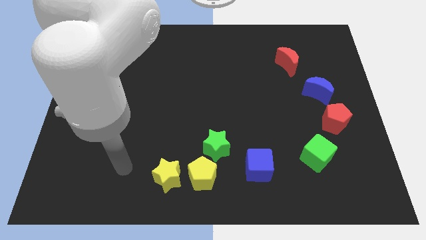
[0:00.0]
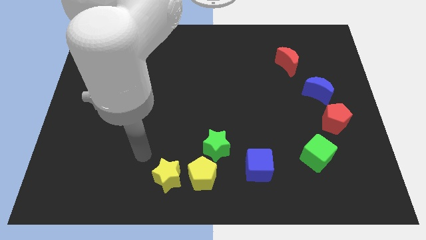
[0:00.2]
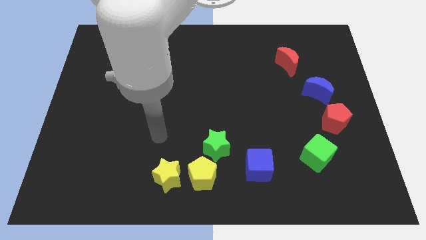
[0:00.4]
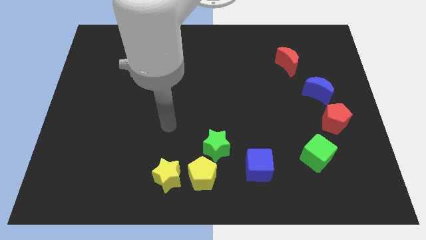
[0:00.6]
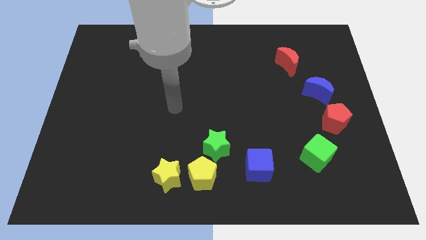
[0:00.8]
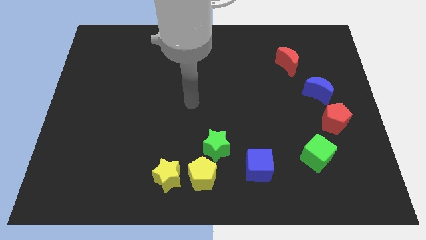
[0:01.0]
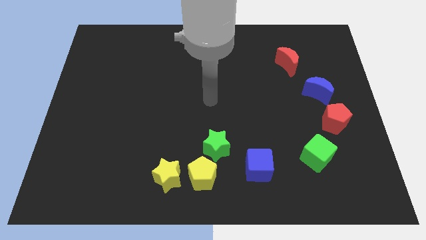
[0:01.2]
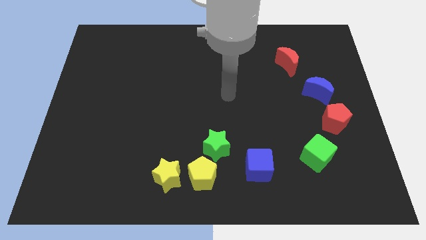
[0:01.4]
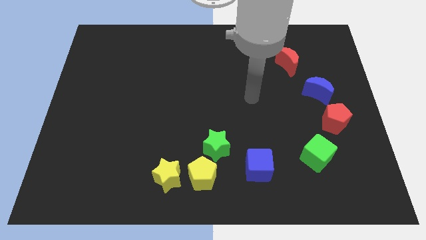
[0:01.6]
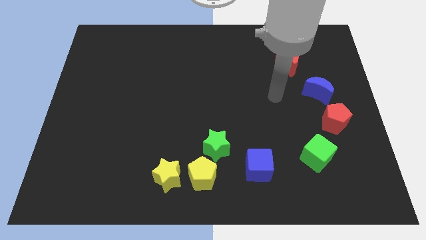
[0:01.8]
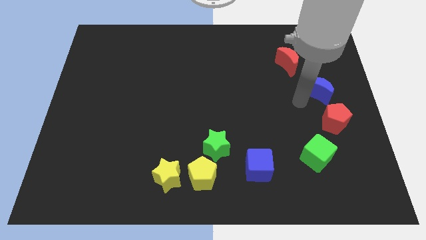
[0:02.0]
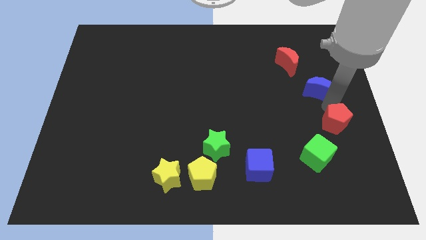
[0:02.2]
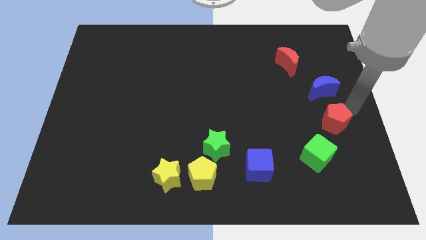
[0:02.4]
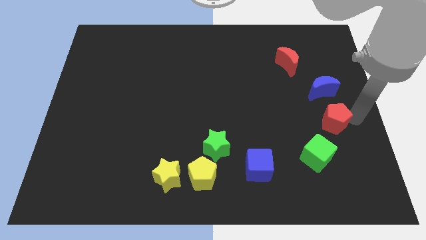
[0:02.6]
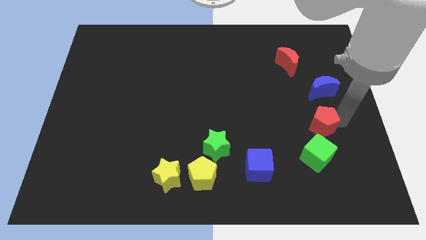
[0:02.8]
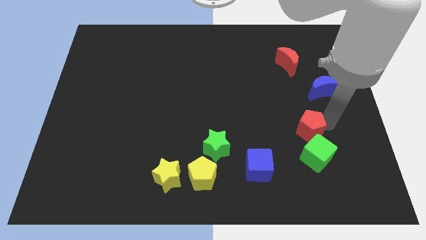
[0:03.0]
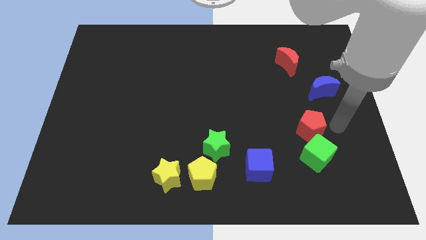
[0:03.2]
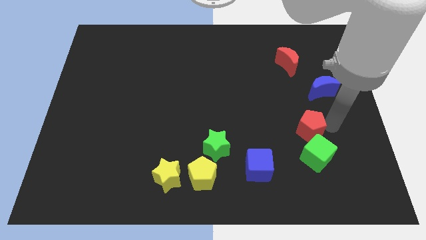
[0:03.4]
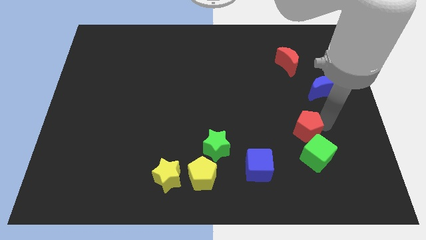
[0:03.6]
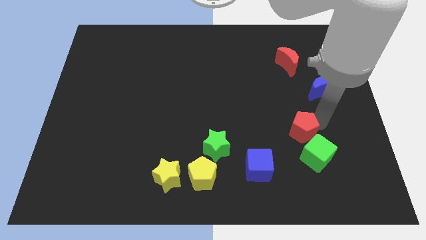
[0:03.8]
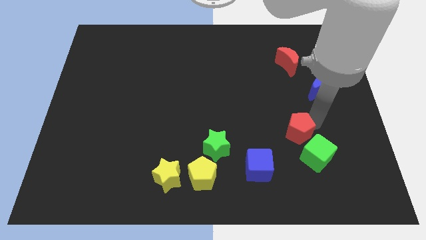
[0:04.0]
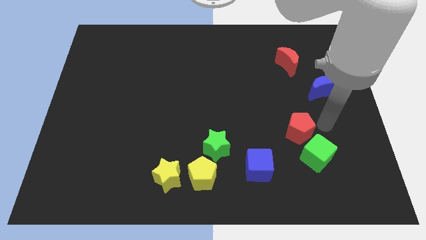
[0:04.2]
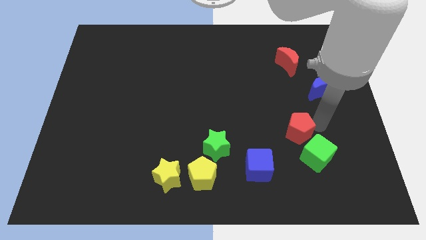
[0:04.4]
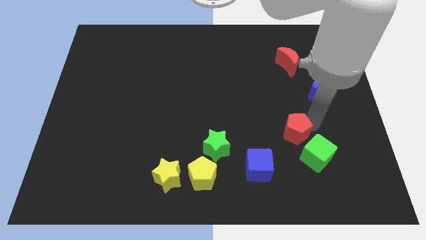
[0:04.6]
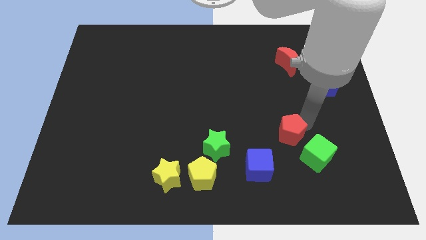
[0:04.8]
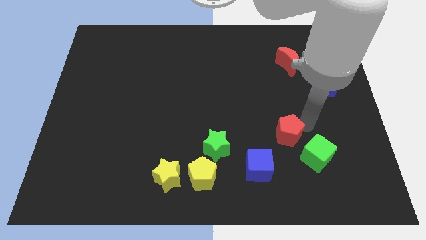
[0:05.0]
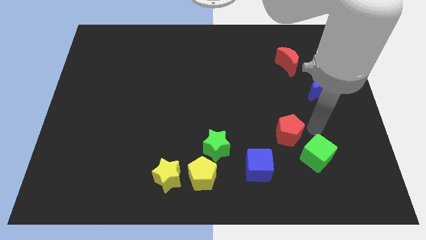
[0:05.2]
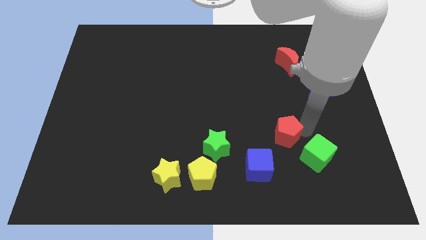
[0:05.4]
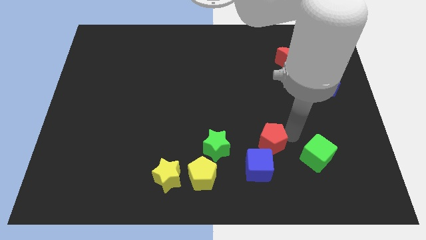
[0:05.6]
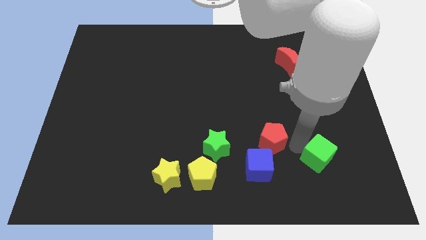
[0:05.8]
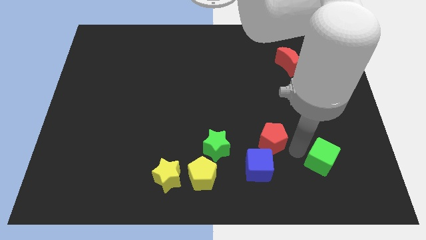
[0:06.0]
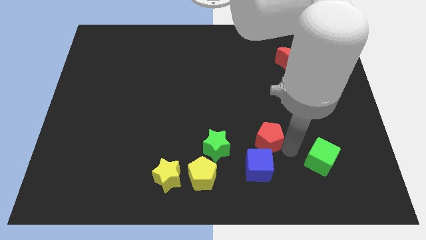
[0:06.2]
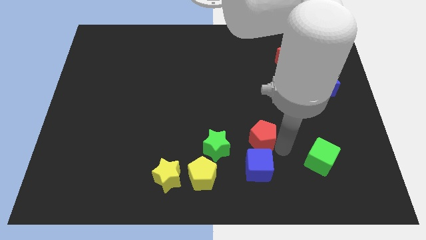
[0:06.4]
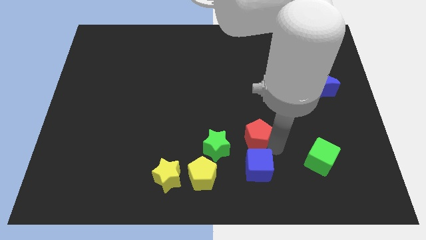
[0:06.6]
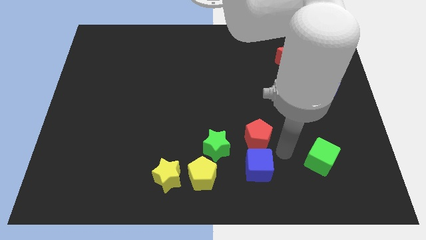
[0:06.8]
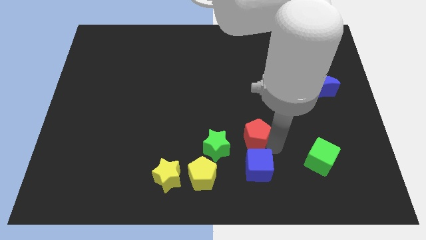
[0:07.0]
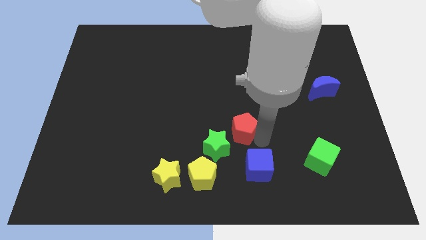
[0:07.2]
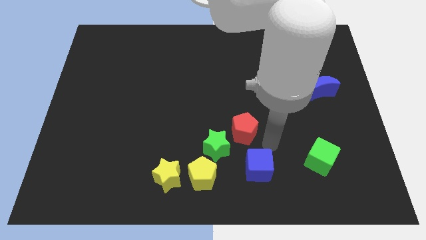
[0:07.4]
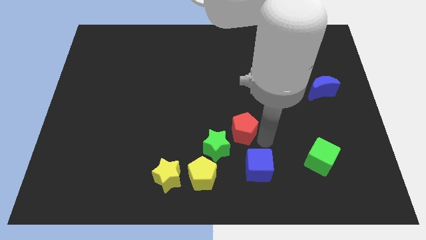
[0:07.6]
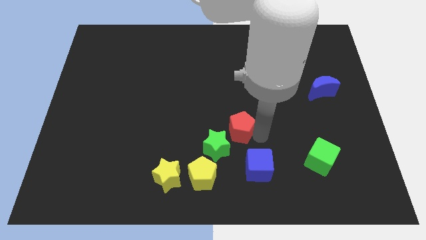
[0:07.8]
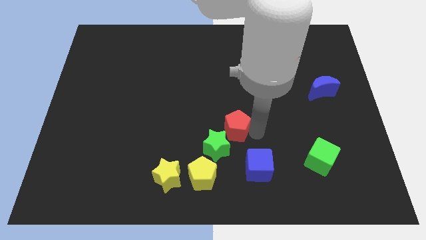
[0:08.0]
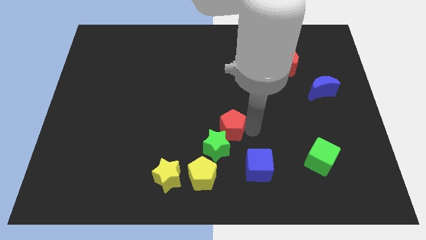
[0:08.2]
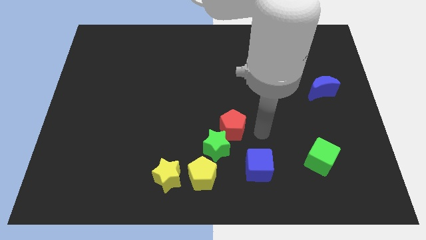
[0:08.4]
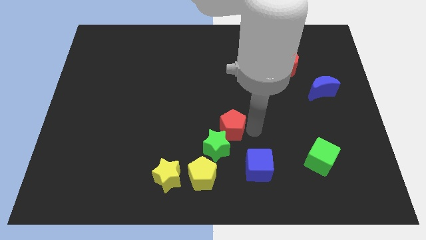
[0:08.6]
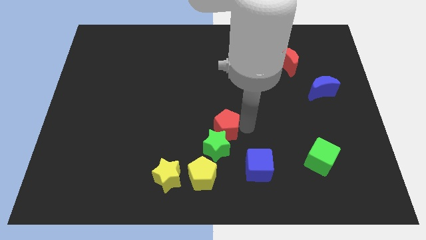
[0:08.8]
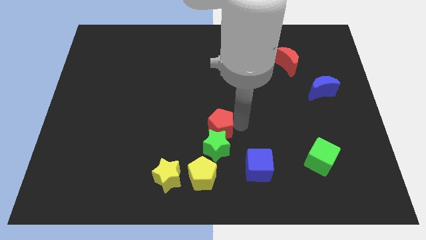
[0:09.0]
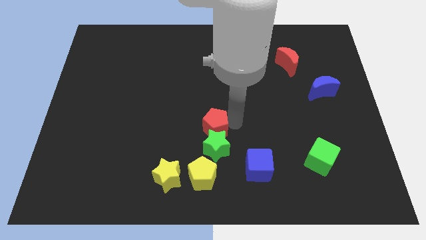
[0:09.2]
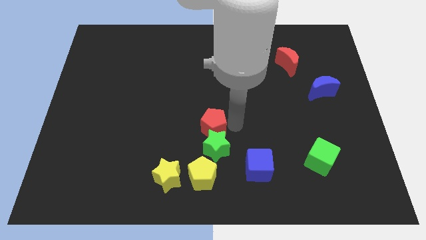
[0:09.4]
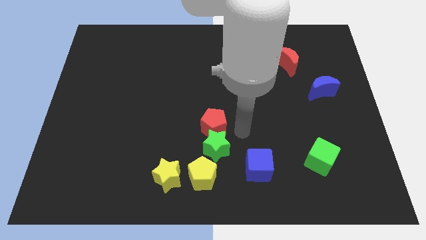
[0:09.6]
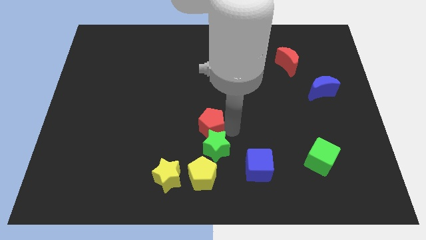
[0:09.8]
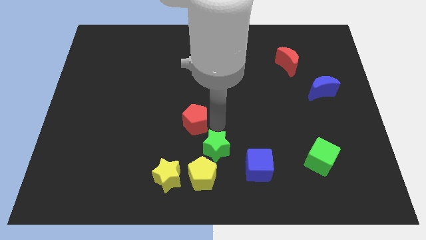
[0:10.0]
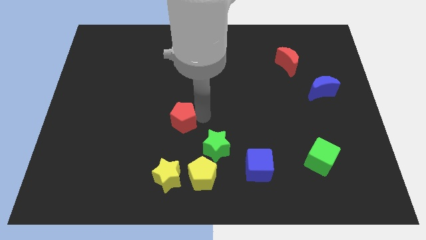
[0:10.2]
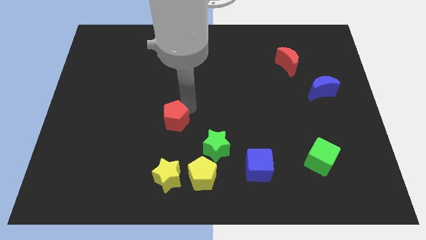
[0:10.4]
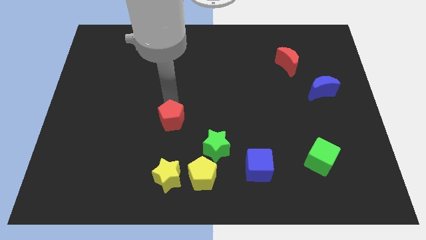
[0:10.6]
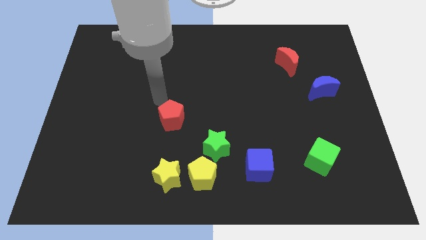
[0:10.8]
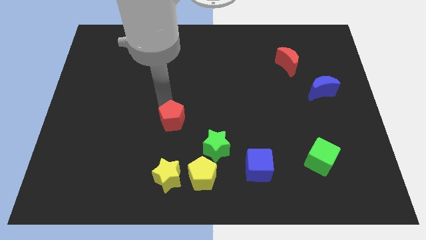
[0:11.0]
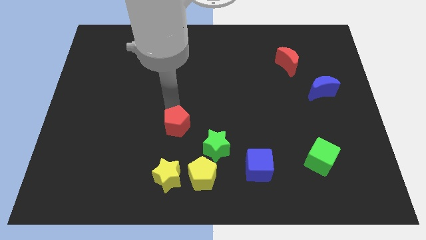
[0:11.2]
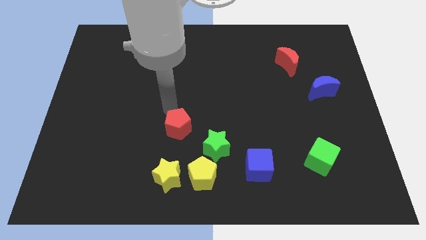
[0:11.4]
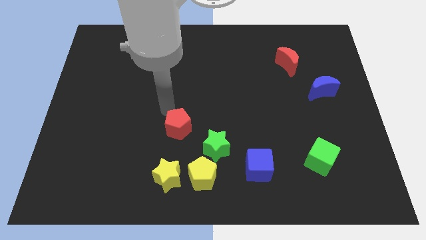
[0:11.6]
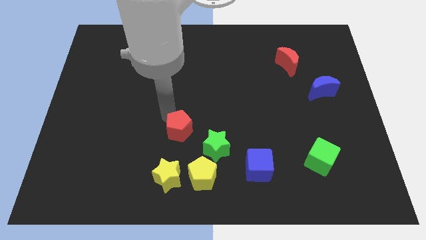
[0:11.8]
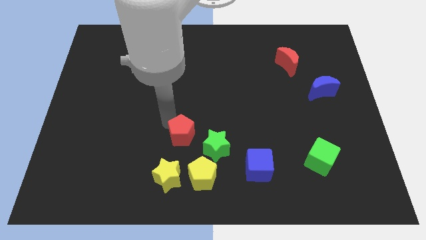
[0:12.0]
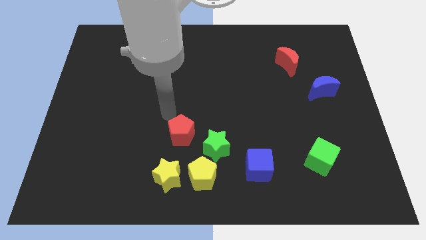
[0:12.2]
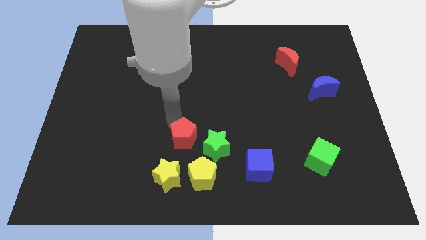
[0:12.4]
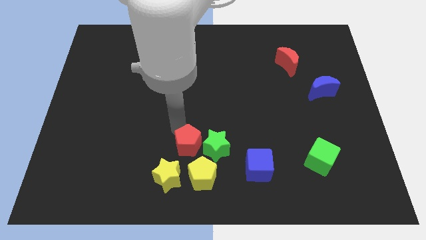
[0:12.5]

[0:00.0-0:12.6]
move the red pentagon diagonally up and to the right of the yellow star

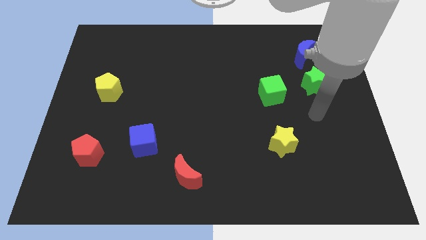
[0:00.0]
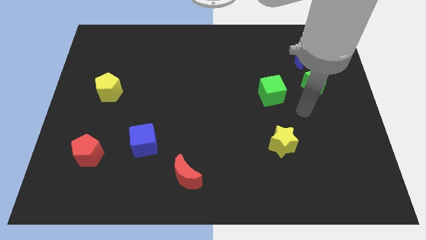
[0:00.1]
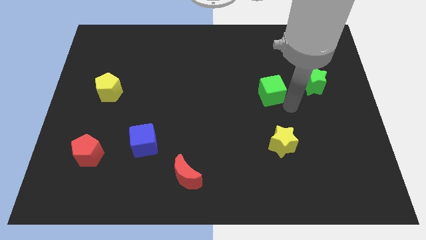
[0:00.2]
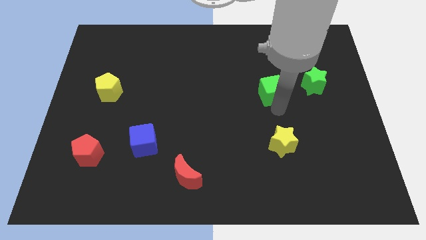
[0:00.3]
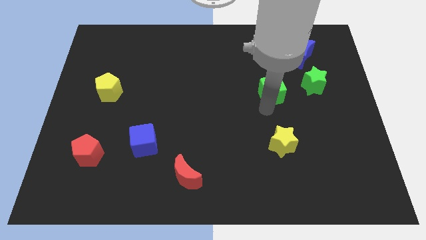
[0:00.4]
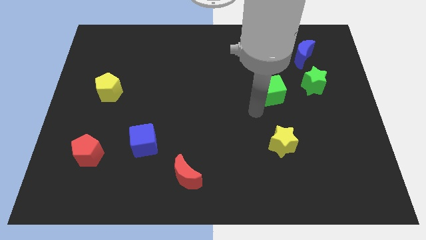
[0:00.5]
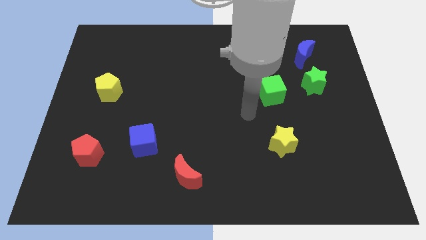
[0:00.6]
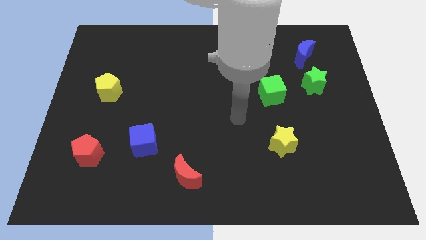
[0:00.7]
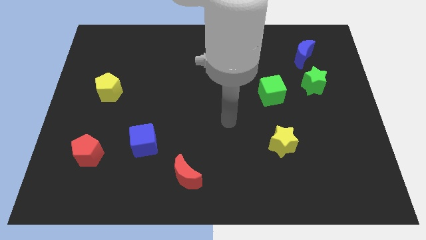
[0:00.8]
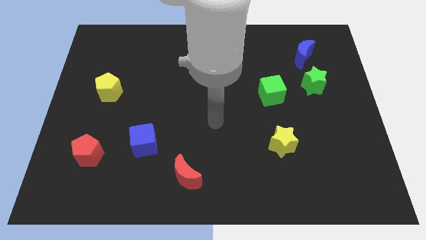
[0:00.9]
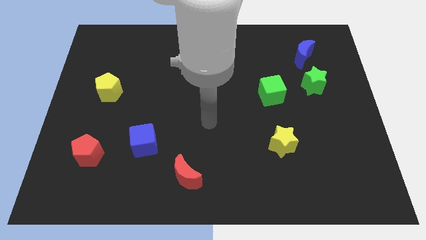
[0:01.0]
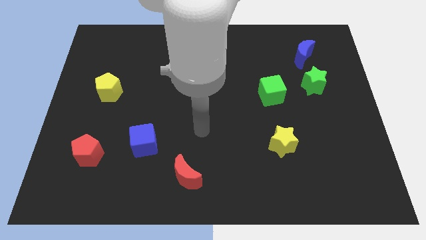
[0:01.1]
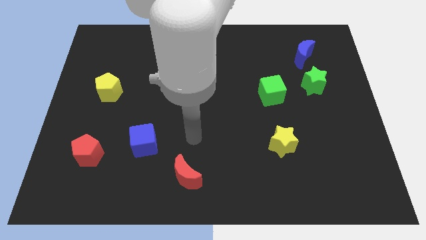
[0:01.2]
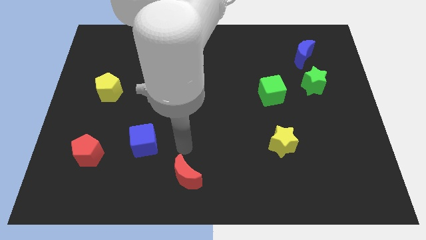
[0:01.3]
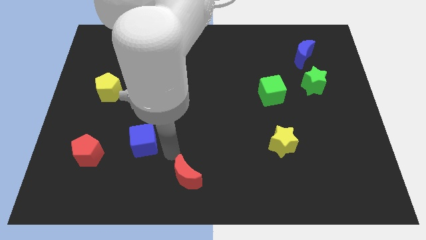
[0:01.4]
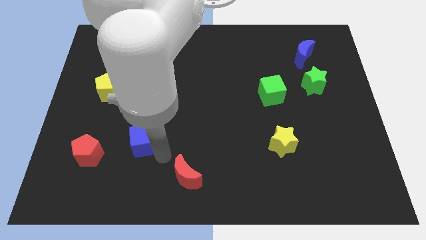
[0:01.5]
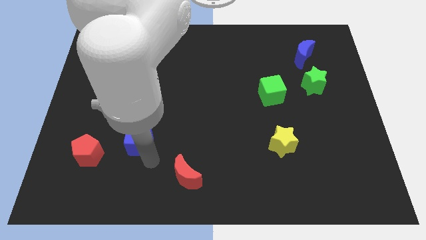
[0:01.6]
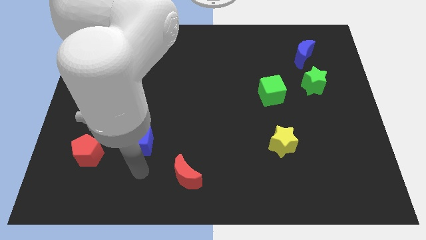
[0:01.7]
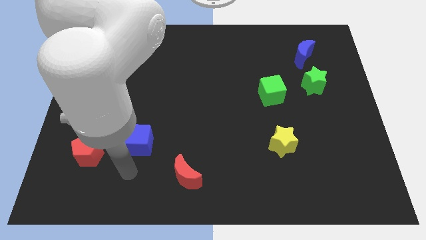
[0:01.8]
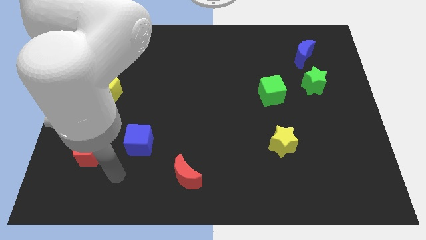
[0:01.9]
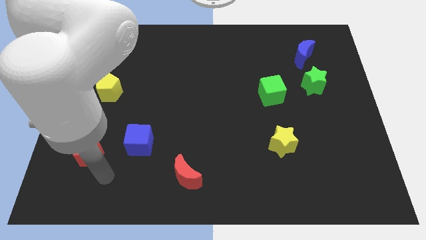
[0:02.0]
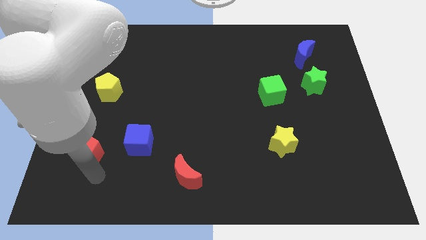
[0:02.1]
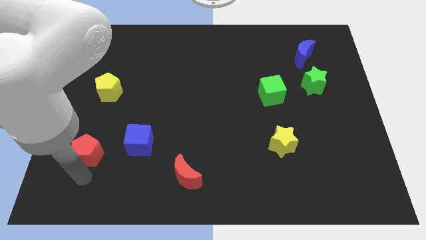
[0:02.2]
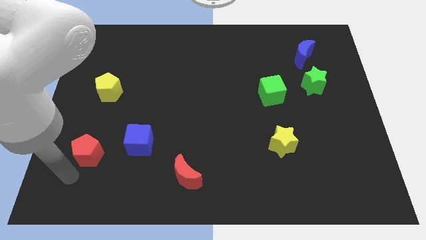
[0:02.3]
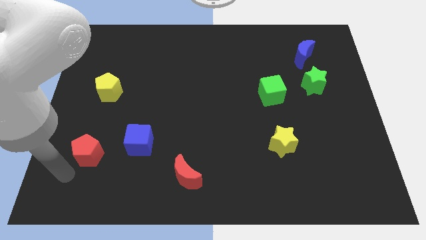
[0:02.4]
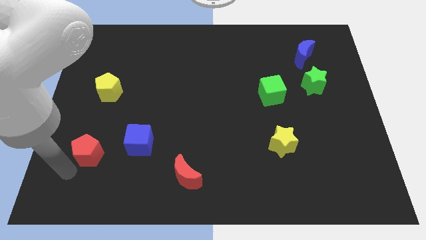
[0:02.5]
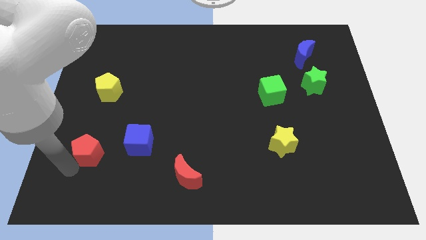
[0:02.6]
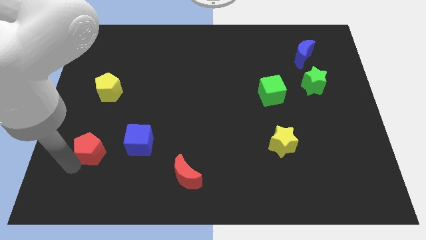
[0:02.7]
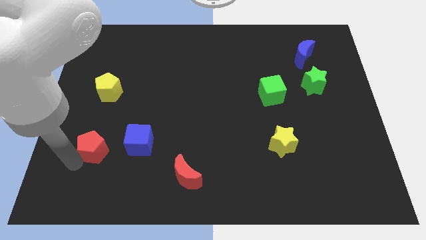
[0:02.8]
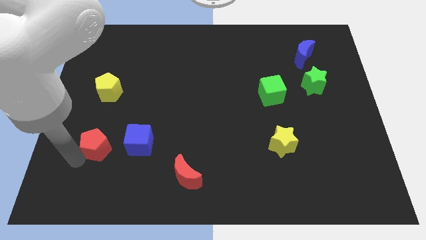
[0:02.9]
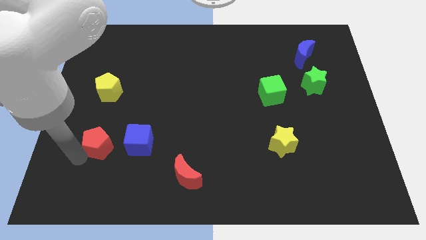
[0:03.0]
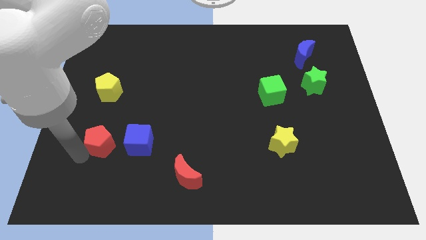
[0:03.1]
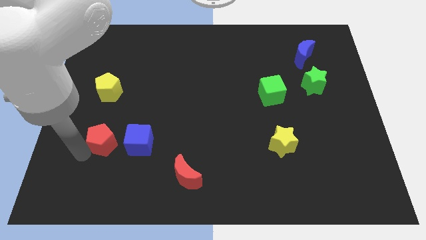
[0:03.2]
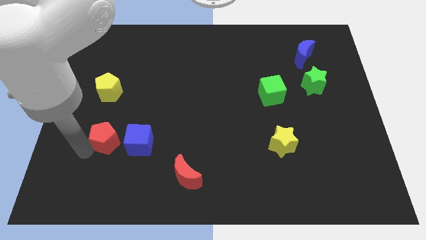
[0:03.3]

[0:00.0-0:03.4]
push the red pentagon to the top left side of the blue cube
